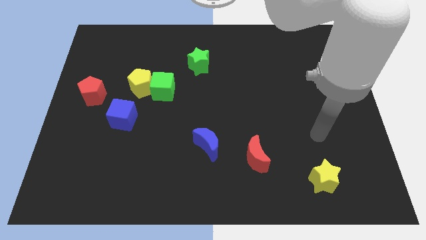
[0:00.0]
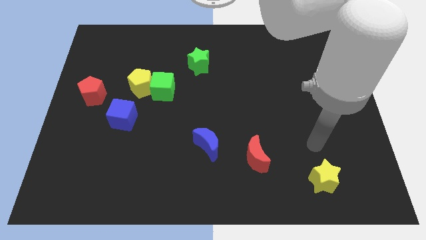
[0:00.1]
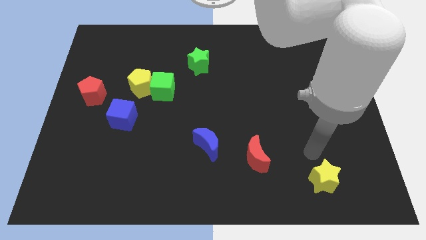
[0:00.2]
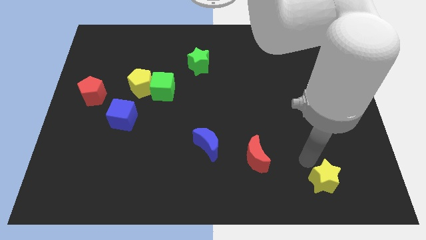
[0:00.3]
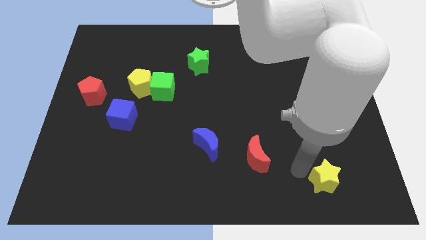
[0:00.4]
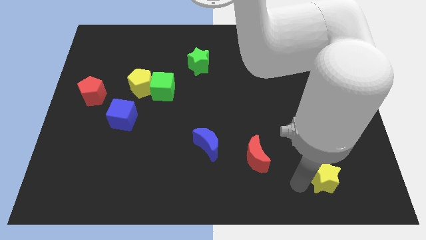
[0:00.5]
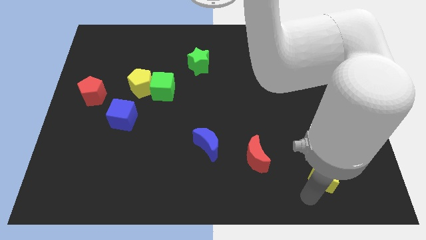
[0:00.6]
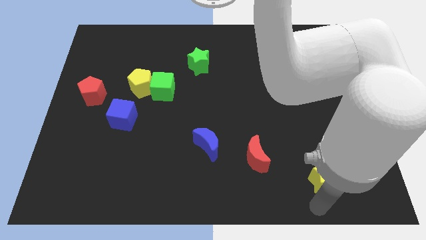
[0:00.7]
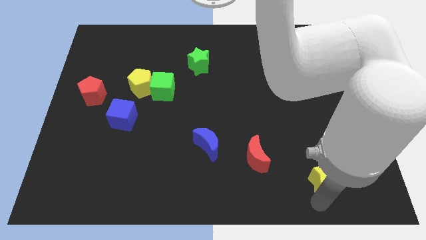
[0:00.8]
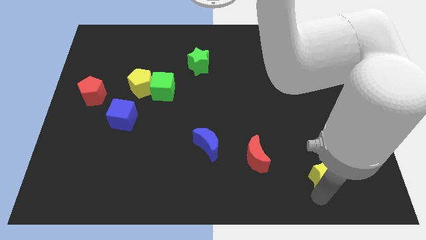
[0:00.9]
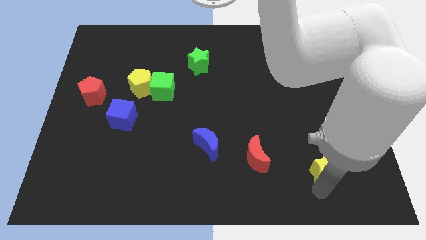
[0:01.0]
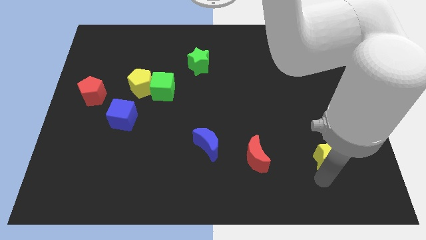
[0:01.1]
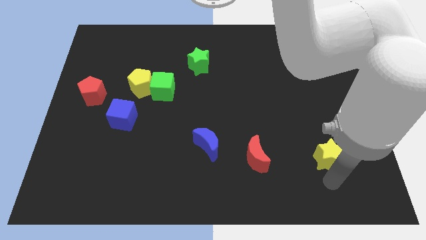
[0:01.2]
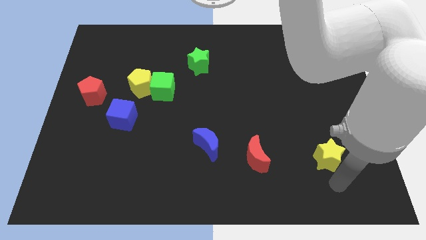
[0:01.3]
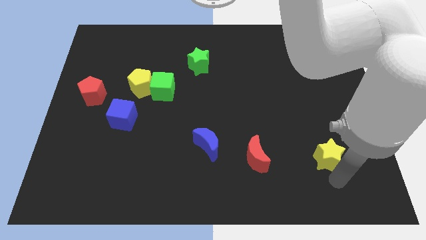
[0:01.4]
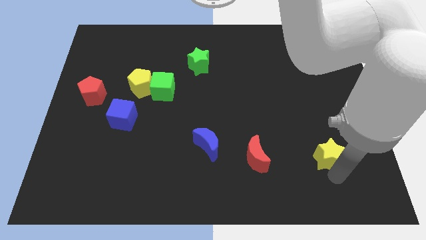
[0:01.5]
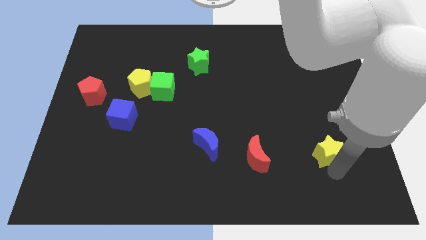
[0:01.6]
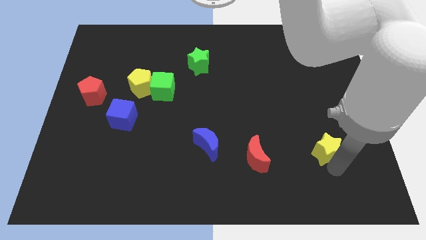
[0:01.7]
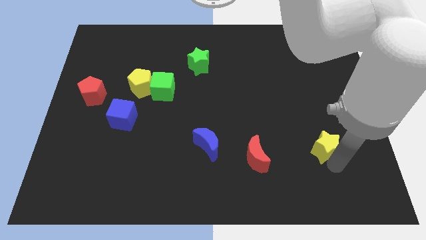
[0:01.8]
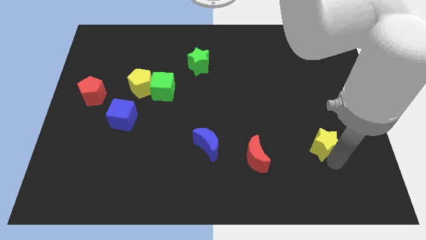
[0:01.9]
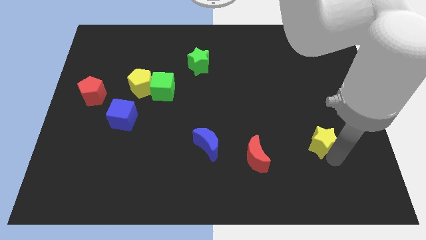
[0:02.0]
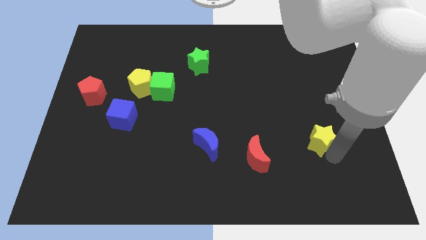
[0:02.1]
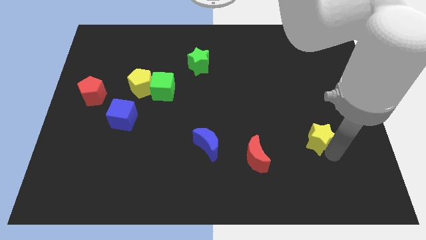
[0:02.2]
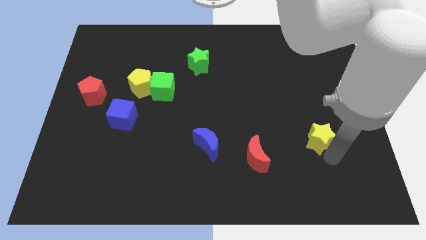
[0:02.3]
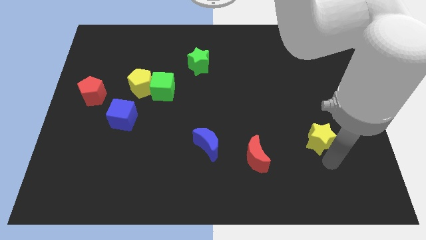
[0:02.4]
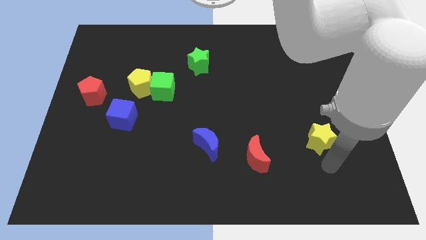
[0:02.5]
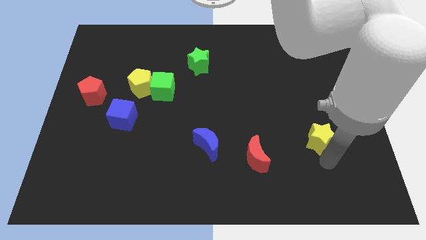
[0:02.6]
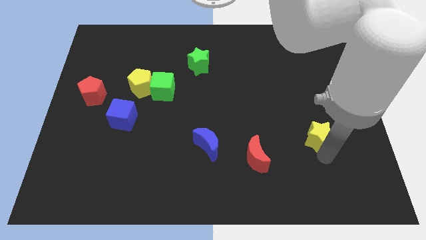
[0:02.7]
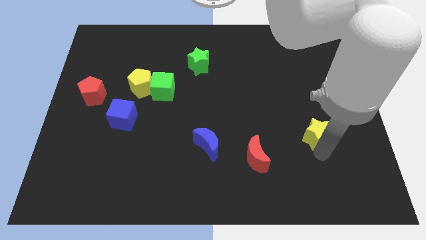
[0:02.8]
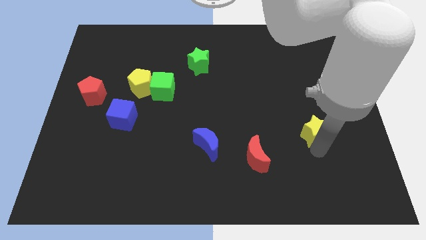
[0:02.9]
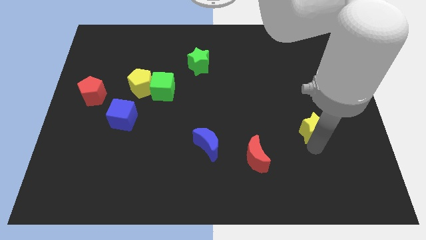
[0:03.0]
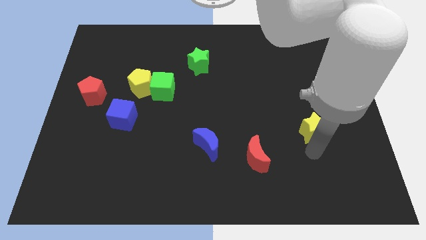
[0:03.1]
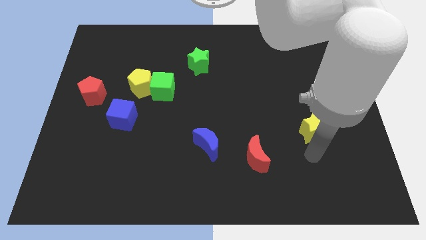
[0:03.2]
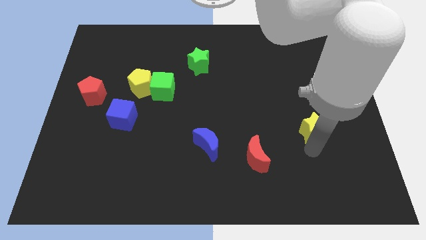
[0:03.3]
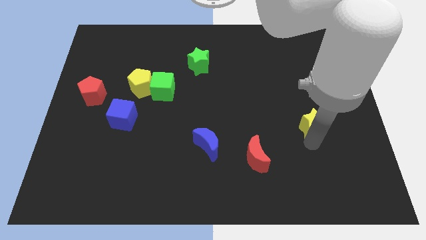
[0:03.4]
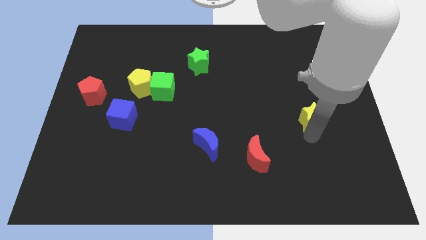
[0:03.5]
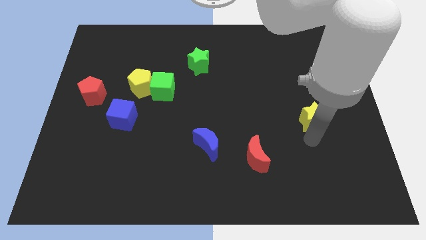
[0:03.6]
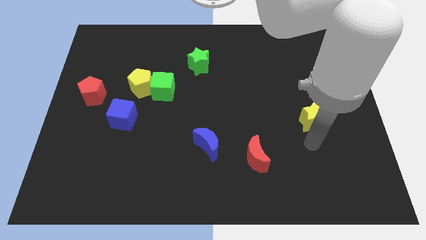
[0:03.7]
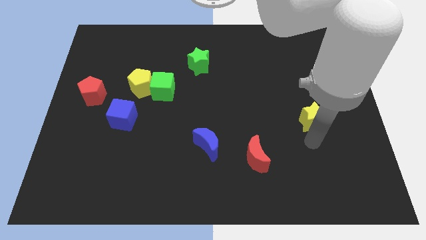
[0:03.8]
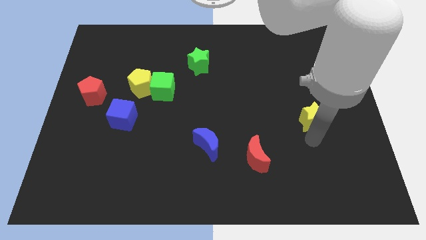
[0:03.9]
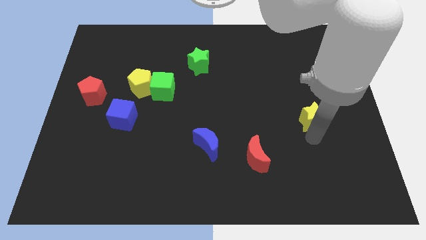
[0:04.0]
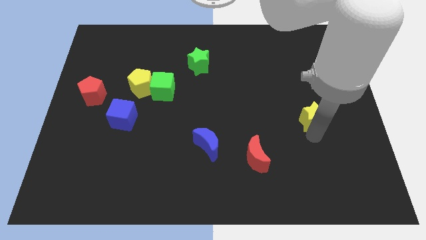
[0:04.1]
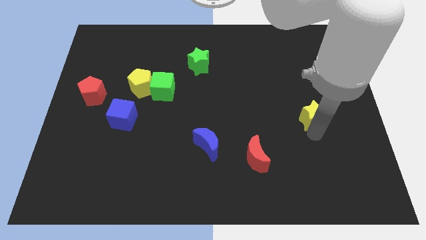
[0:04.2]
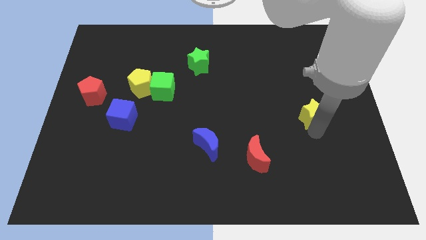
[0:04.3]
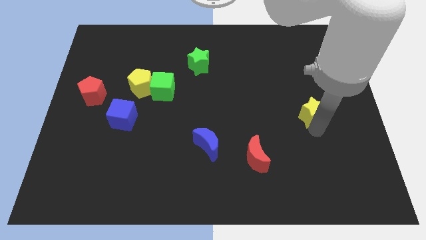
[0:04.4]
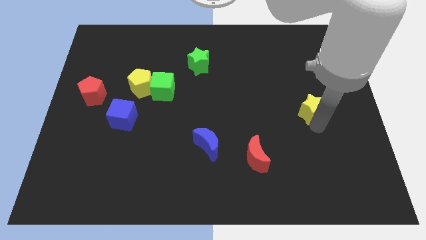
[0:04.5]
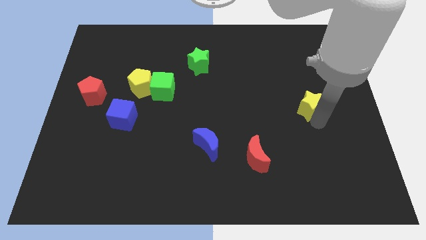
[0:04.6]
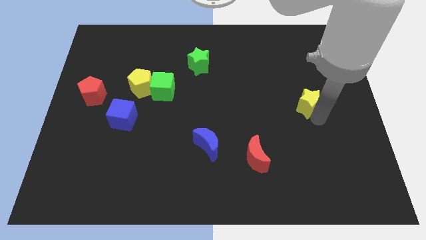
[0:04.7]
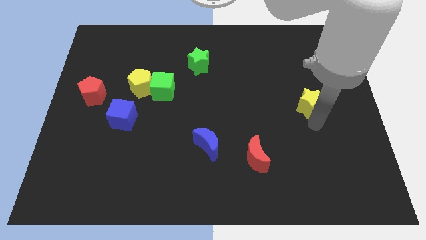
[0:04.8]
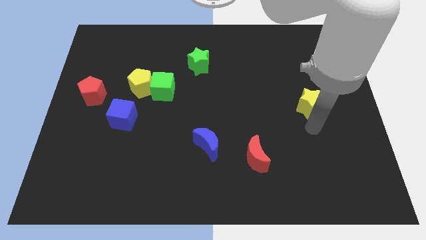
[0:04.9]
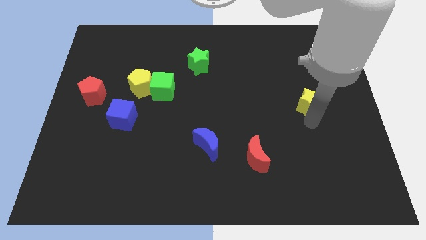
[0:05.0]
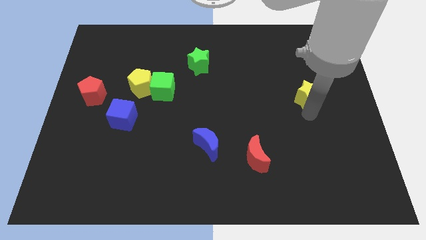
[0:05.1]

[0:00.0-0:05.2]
move the yellow star upwards

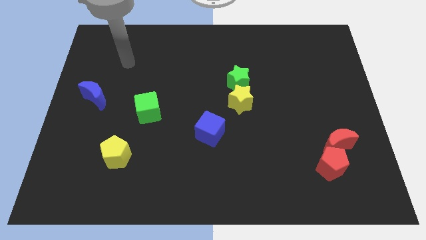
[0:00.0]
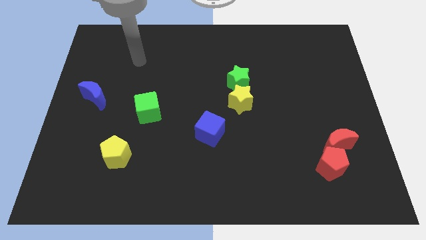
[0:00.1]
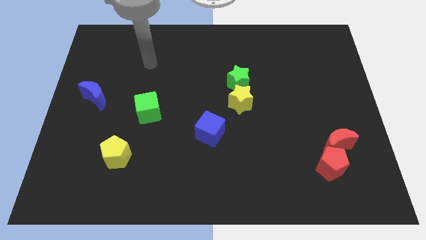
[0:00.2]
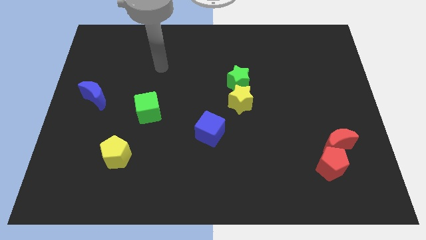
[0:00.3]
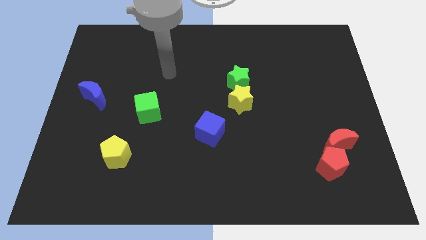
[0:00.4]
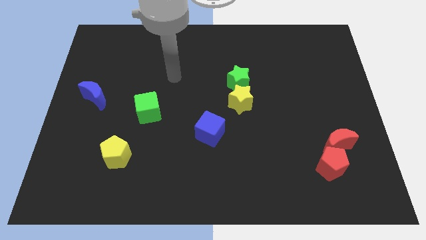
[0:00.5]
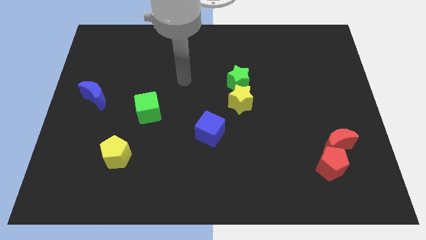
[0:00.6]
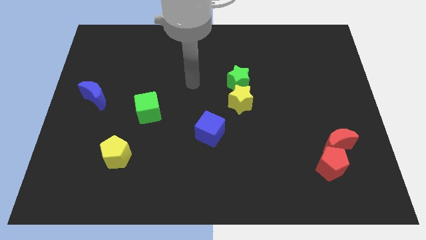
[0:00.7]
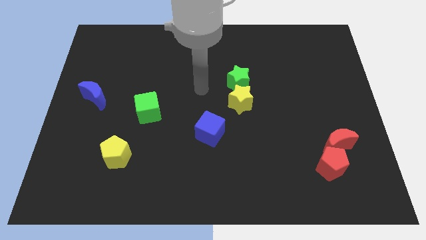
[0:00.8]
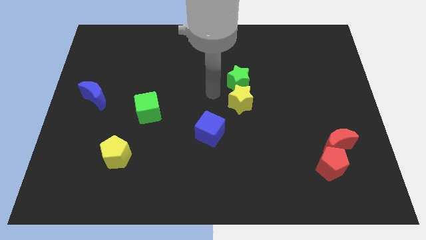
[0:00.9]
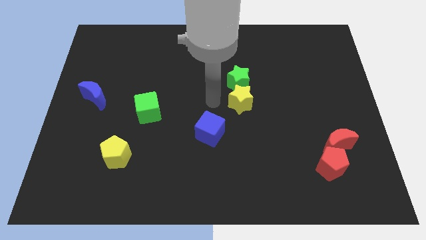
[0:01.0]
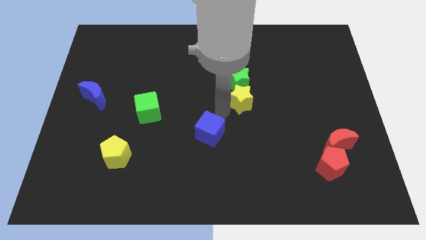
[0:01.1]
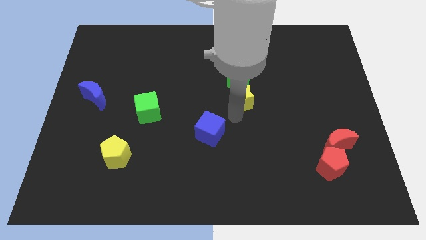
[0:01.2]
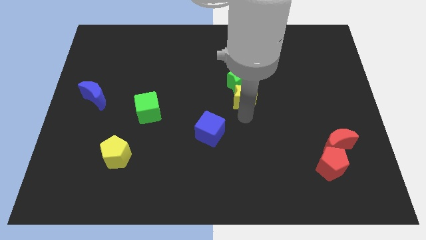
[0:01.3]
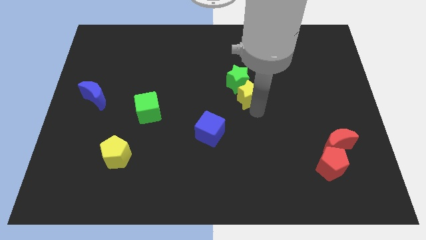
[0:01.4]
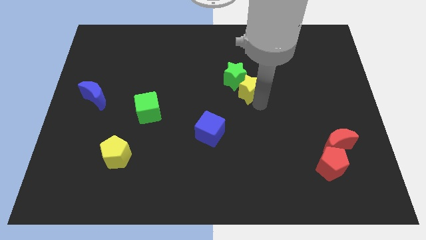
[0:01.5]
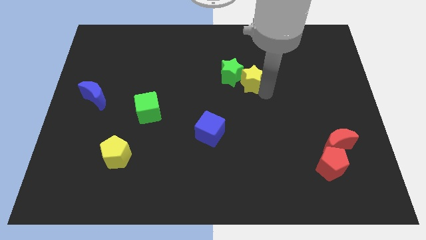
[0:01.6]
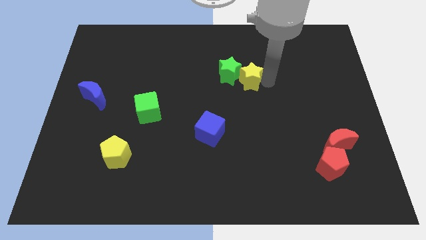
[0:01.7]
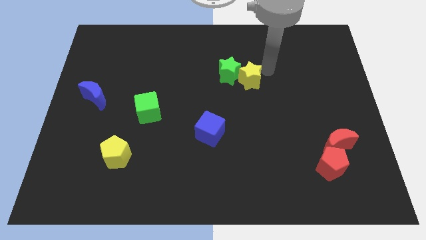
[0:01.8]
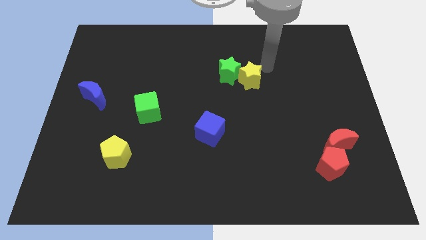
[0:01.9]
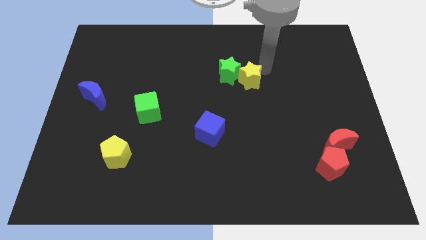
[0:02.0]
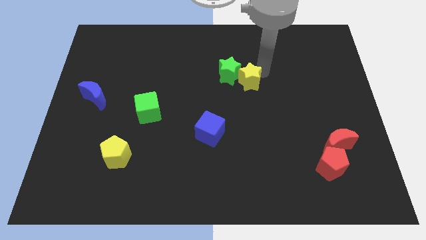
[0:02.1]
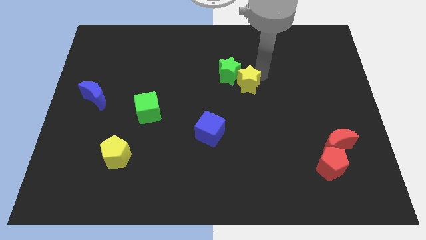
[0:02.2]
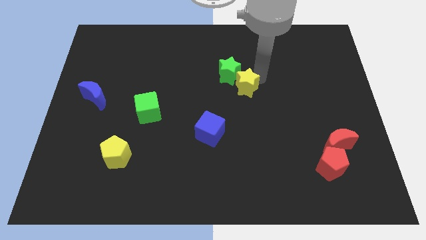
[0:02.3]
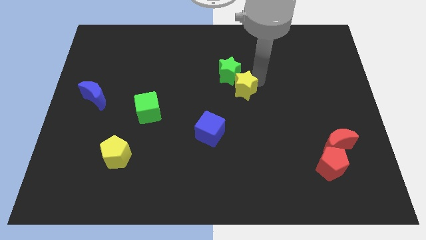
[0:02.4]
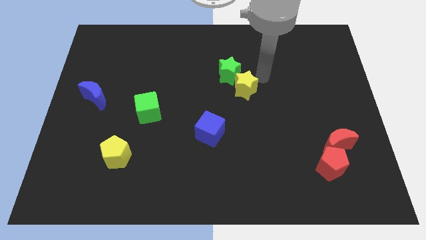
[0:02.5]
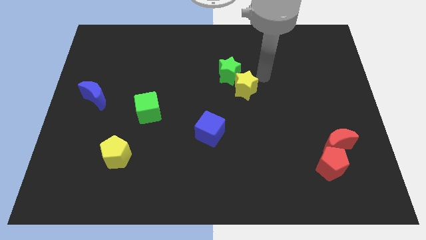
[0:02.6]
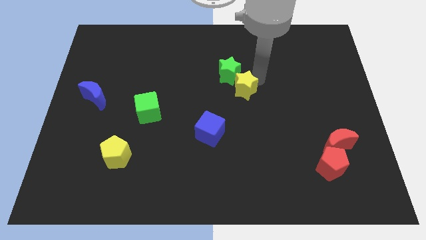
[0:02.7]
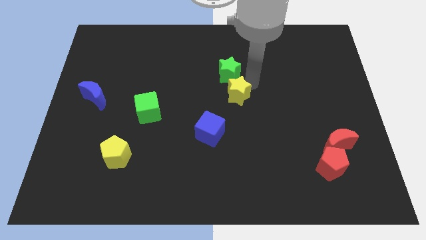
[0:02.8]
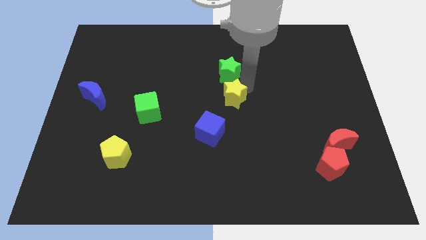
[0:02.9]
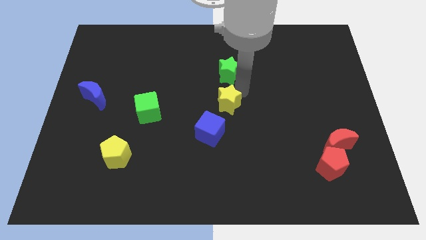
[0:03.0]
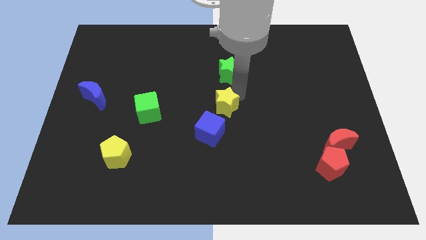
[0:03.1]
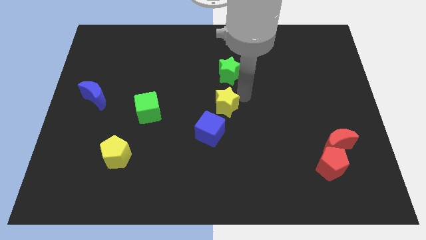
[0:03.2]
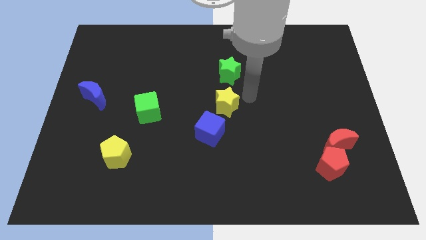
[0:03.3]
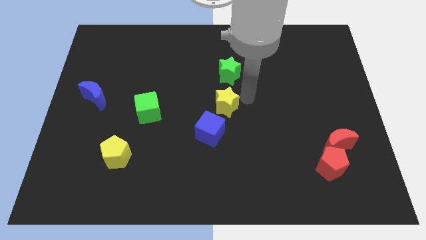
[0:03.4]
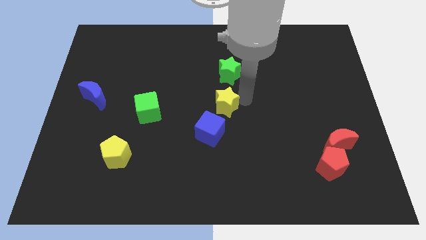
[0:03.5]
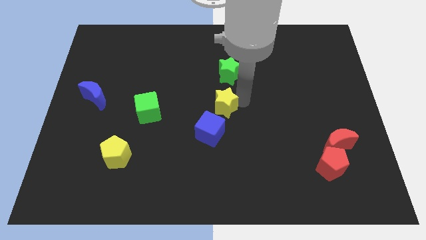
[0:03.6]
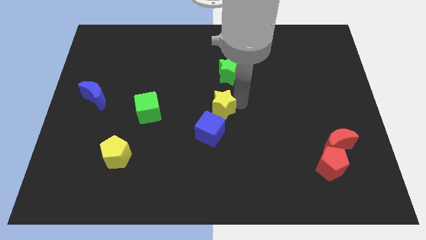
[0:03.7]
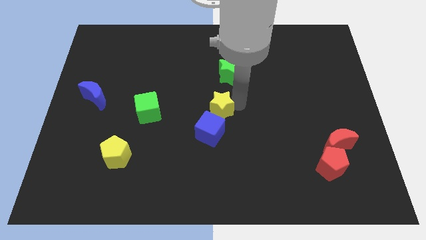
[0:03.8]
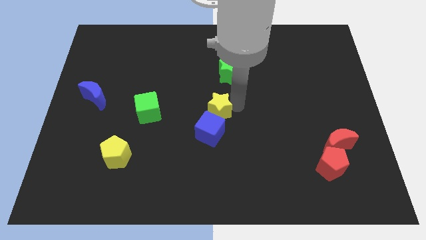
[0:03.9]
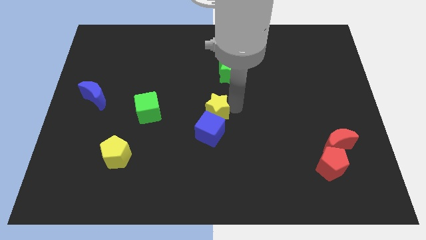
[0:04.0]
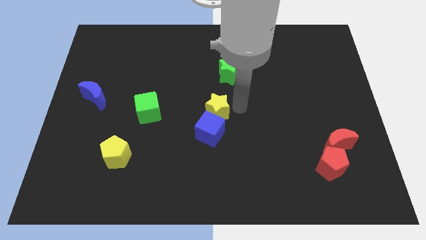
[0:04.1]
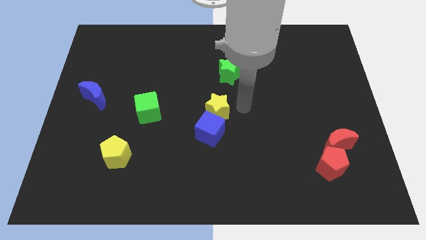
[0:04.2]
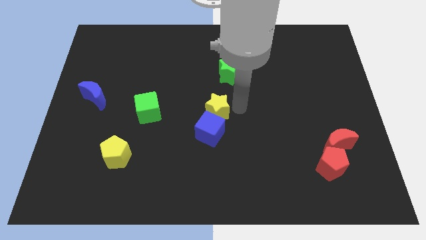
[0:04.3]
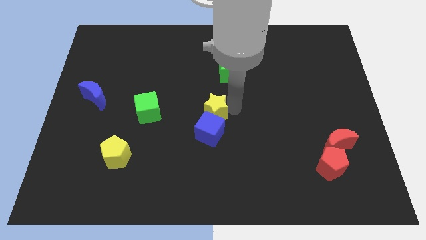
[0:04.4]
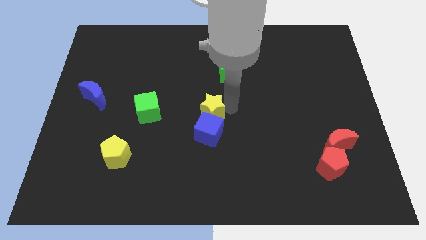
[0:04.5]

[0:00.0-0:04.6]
move the yellow star diagonally downwards and left a little bit
